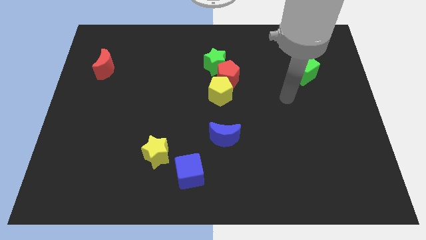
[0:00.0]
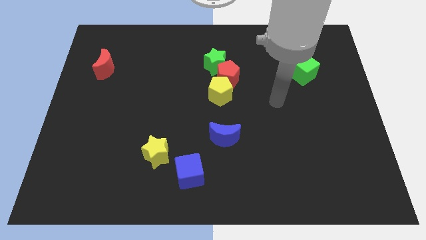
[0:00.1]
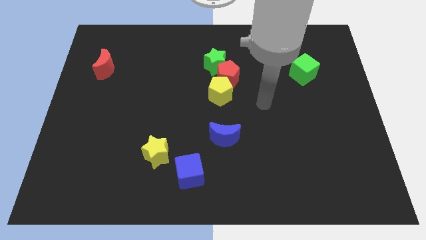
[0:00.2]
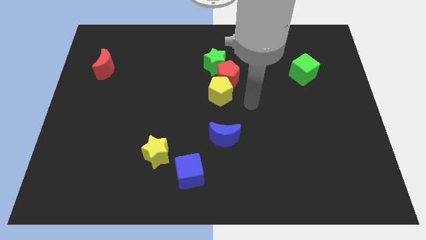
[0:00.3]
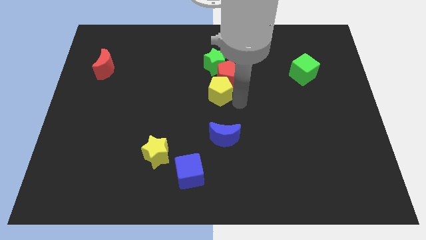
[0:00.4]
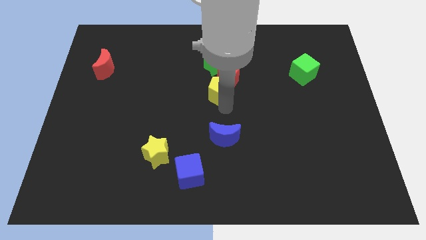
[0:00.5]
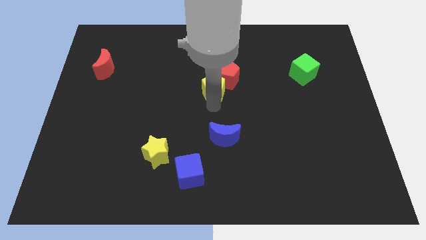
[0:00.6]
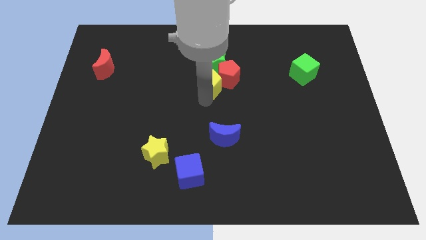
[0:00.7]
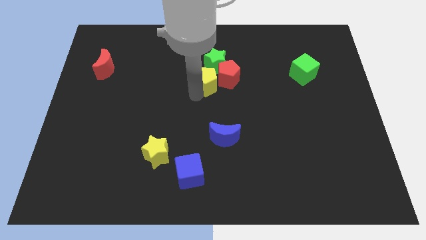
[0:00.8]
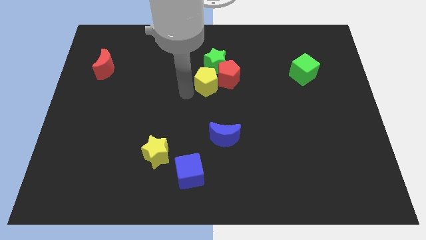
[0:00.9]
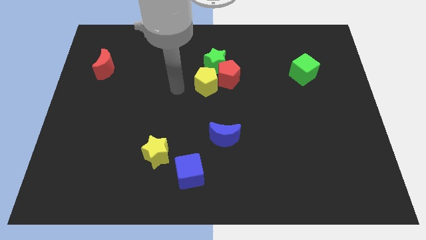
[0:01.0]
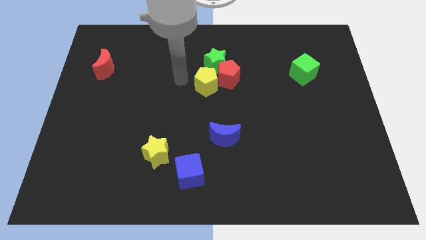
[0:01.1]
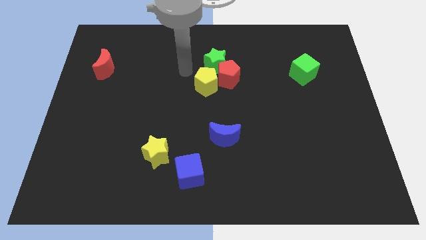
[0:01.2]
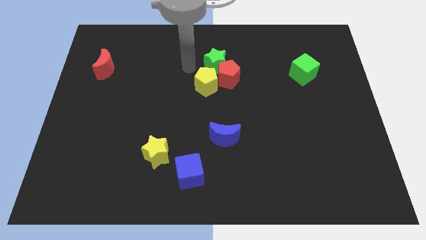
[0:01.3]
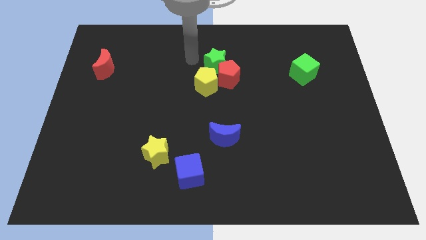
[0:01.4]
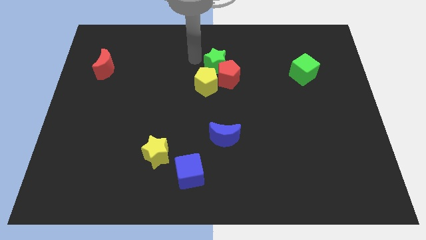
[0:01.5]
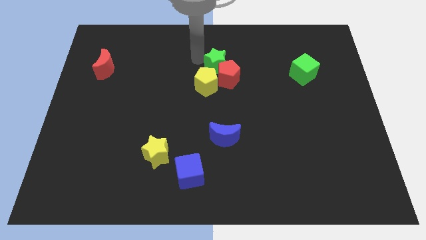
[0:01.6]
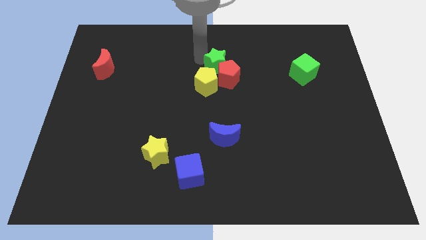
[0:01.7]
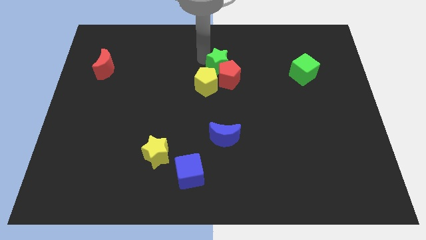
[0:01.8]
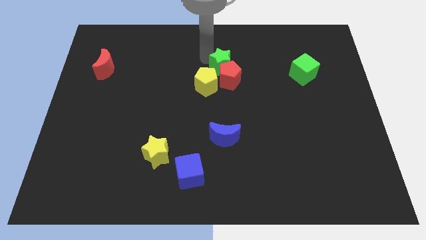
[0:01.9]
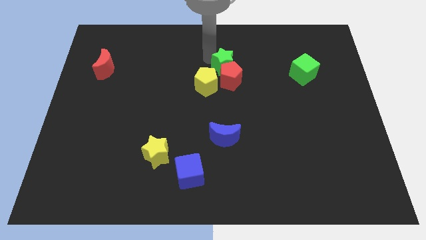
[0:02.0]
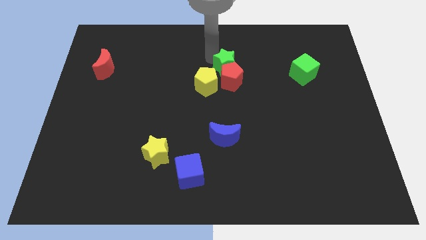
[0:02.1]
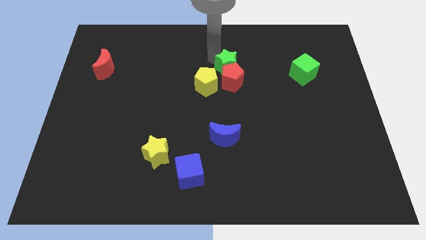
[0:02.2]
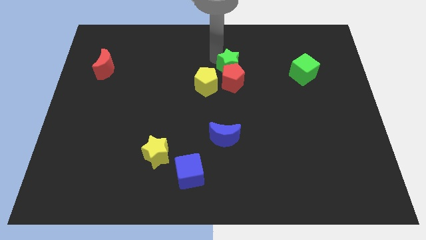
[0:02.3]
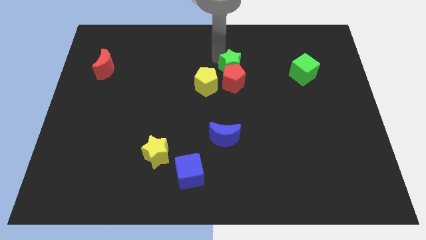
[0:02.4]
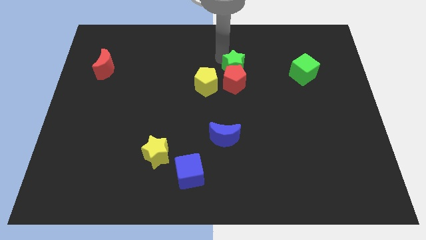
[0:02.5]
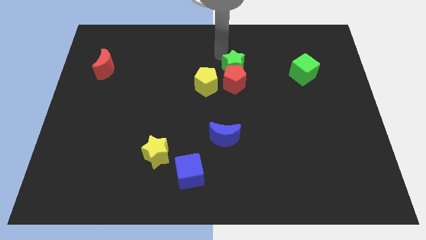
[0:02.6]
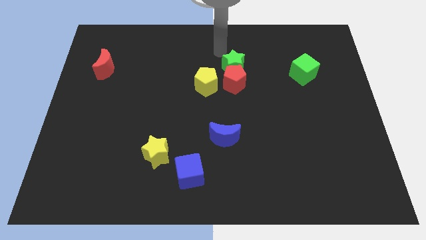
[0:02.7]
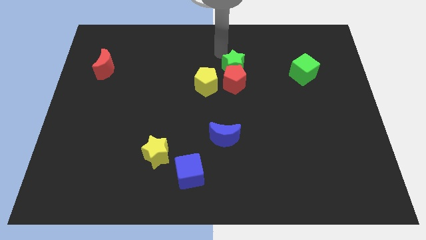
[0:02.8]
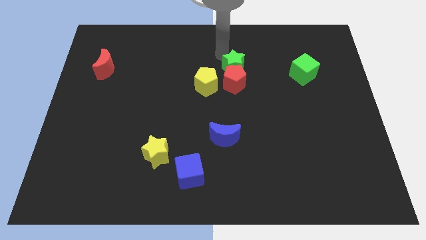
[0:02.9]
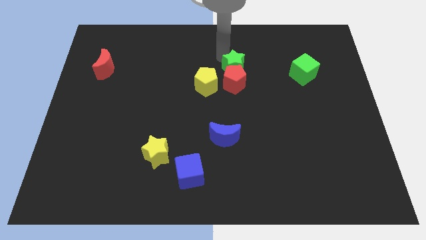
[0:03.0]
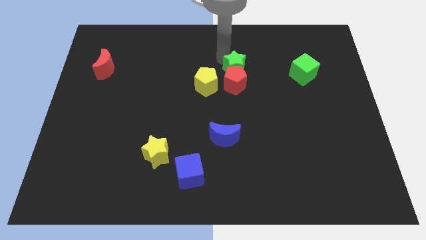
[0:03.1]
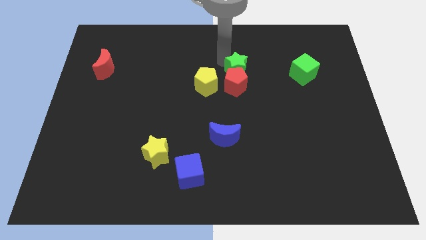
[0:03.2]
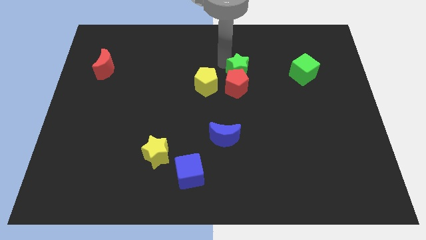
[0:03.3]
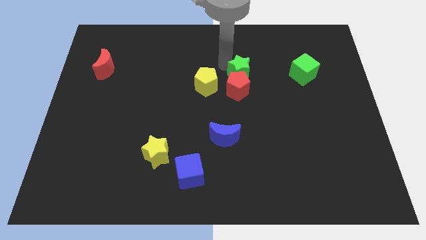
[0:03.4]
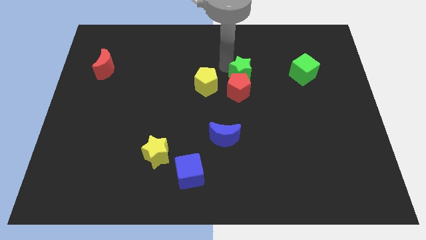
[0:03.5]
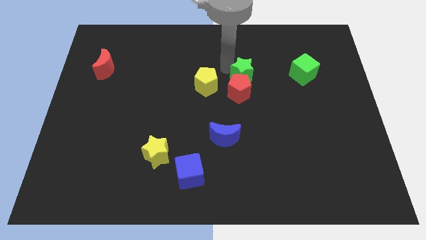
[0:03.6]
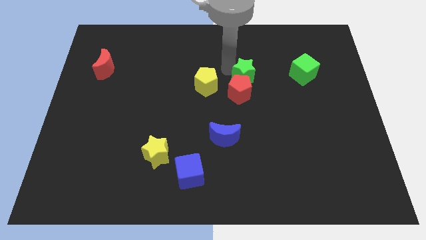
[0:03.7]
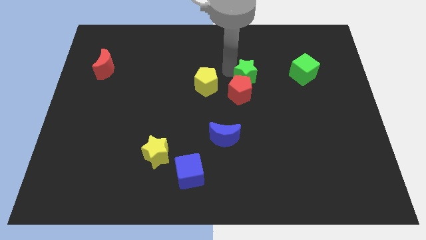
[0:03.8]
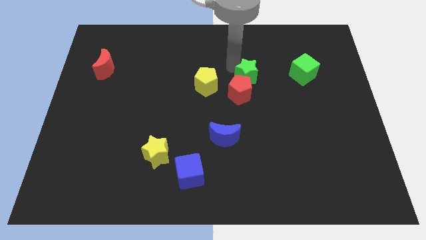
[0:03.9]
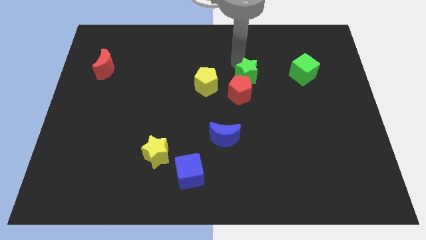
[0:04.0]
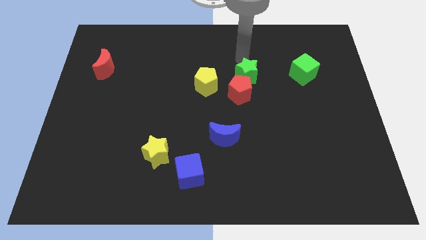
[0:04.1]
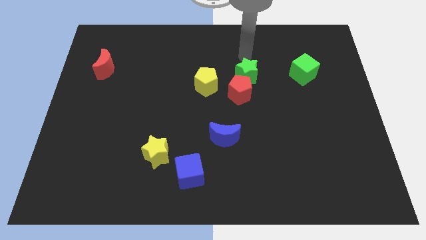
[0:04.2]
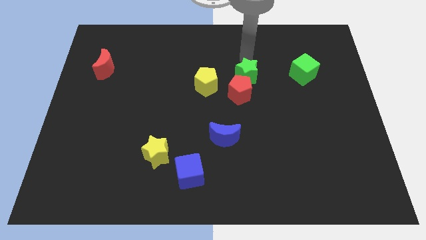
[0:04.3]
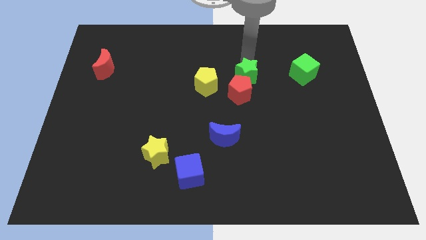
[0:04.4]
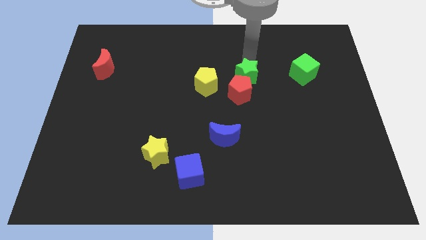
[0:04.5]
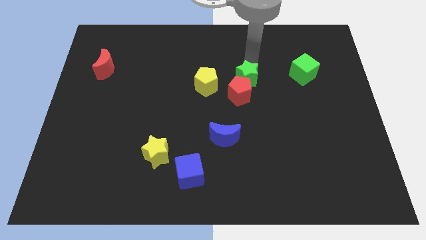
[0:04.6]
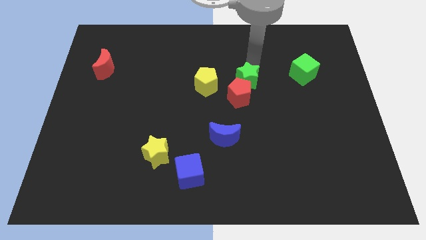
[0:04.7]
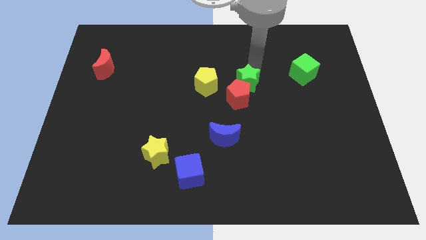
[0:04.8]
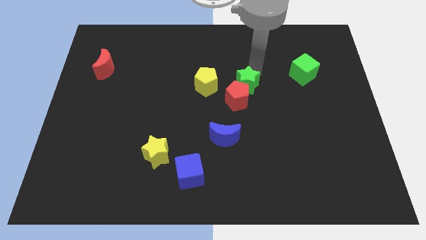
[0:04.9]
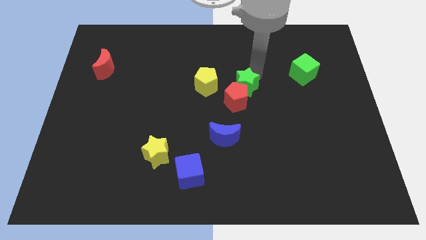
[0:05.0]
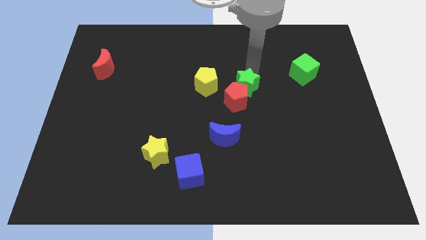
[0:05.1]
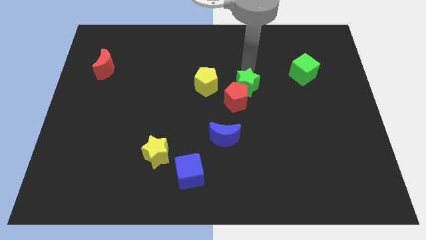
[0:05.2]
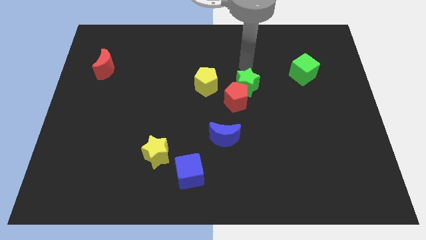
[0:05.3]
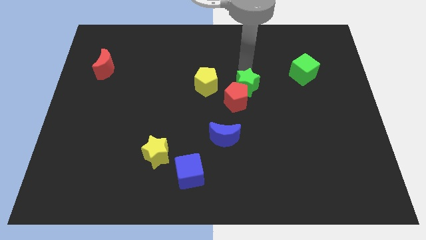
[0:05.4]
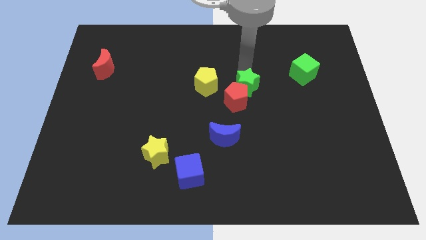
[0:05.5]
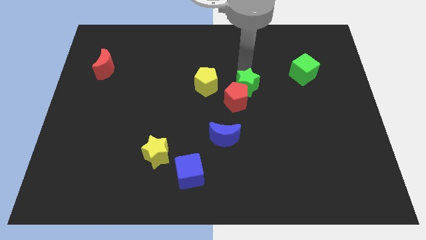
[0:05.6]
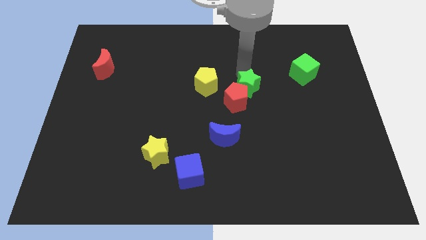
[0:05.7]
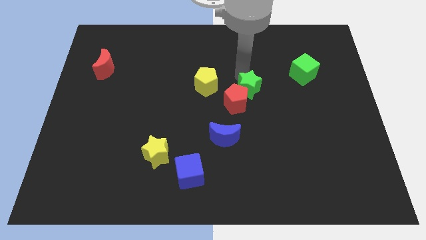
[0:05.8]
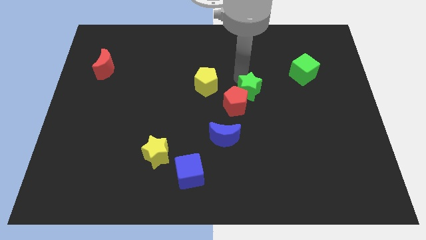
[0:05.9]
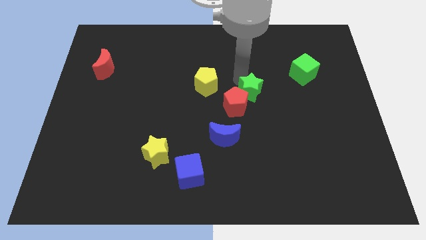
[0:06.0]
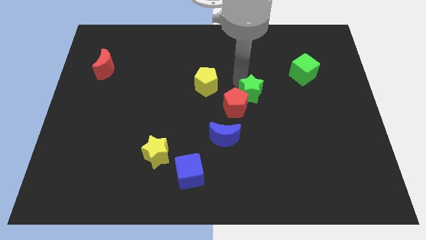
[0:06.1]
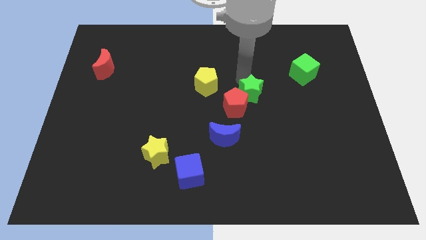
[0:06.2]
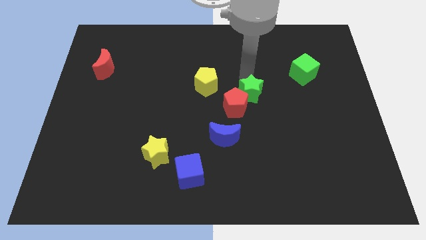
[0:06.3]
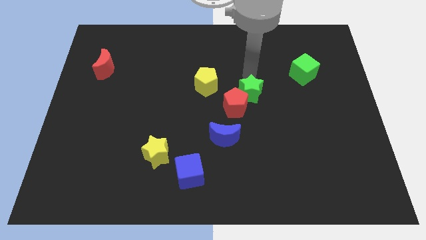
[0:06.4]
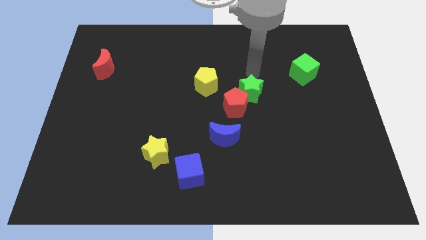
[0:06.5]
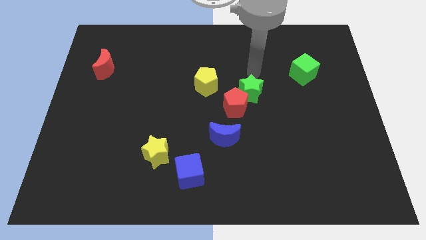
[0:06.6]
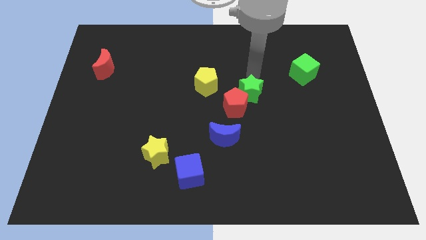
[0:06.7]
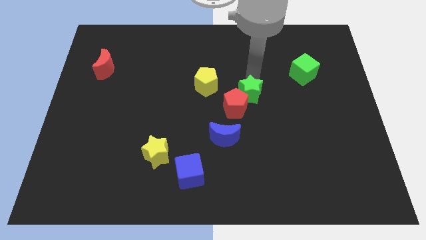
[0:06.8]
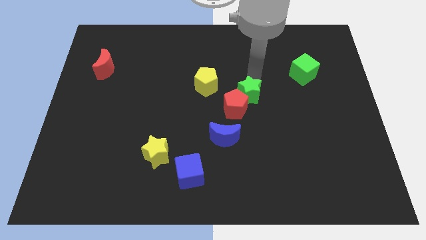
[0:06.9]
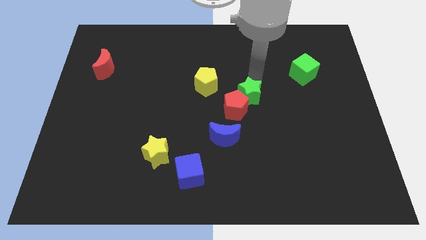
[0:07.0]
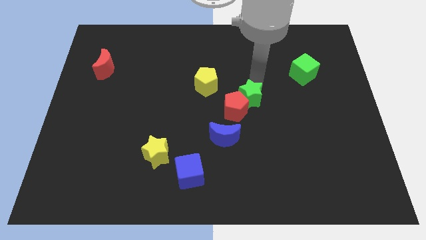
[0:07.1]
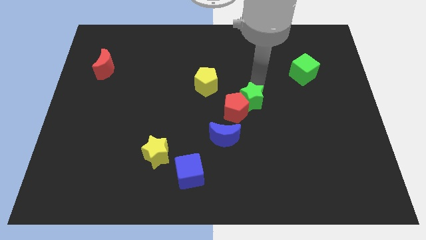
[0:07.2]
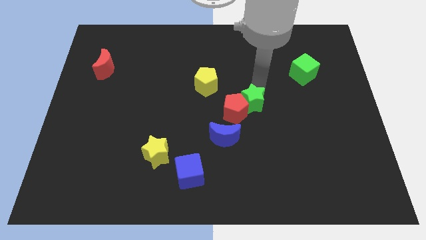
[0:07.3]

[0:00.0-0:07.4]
move the green star diagonally up and to the right of the blue moon
